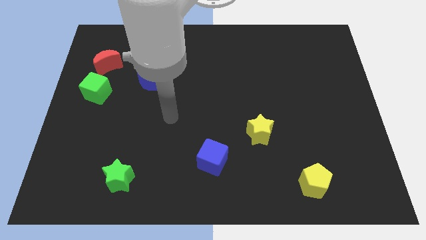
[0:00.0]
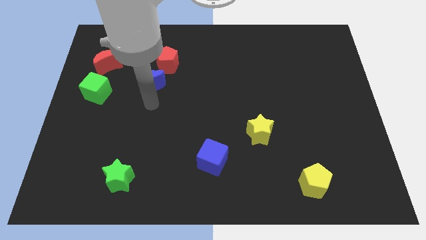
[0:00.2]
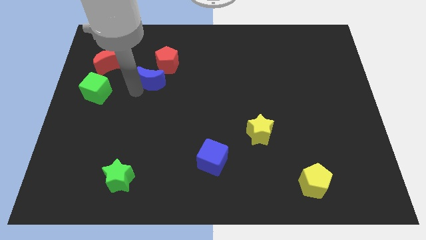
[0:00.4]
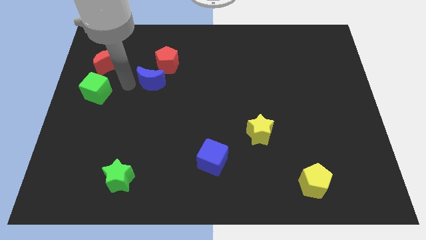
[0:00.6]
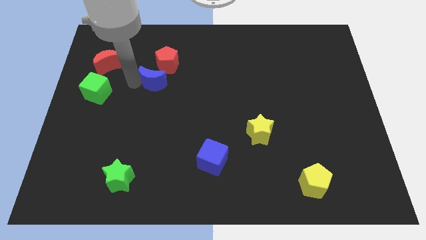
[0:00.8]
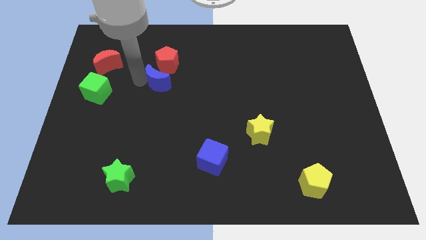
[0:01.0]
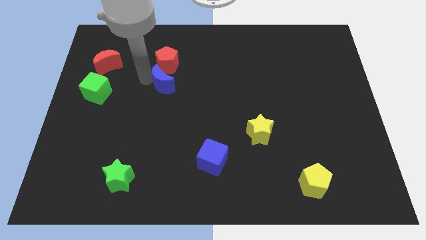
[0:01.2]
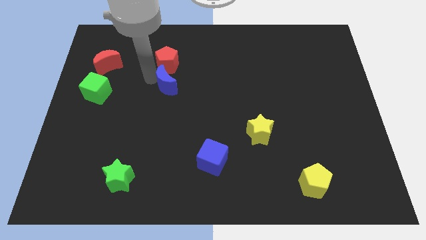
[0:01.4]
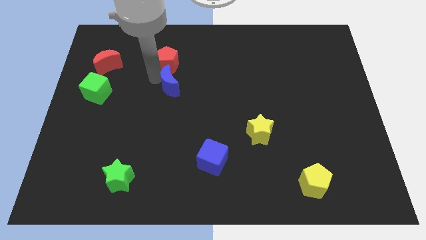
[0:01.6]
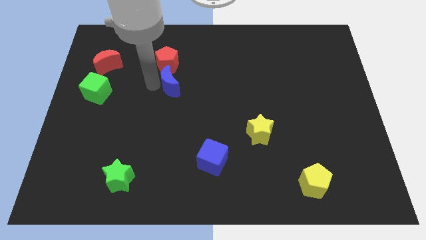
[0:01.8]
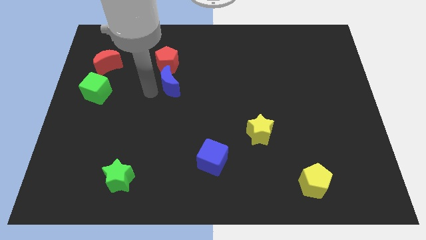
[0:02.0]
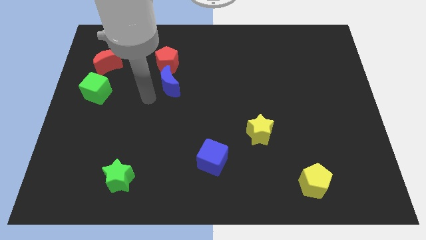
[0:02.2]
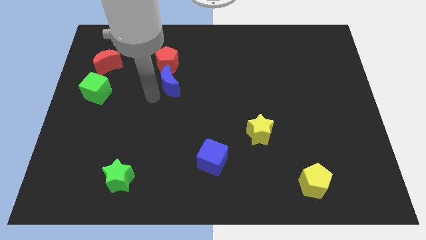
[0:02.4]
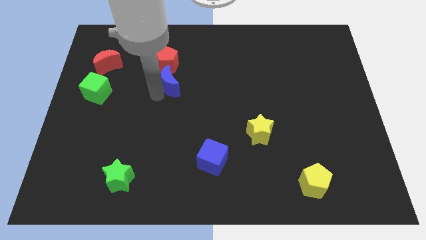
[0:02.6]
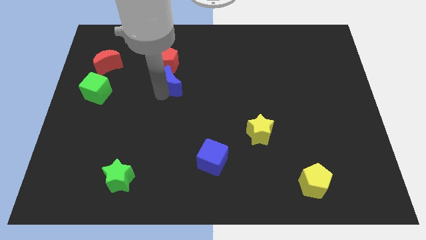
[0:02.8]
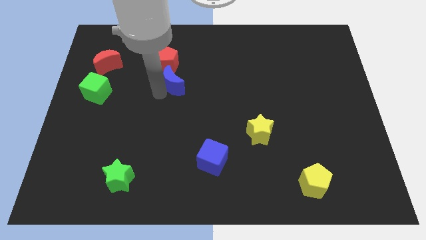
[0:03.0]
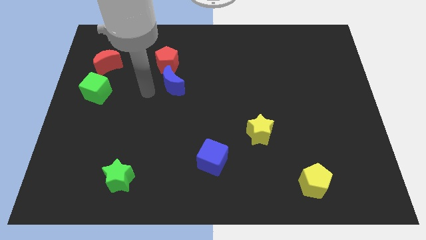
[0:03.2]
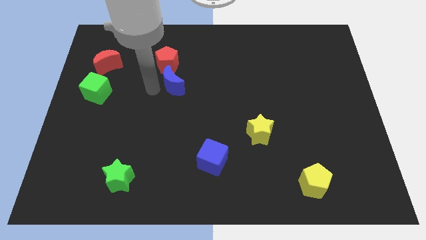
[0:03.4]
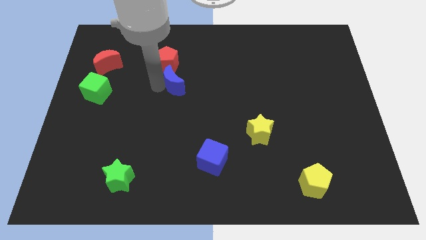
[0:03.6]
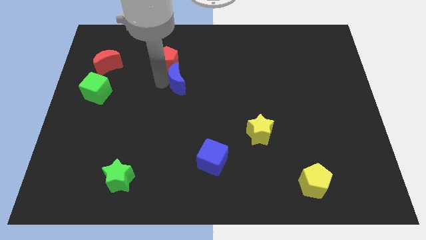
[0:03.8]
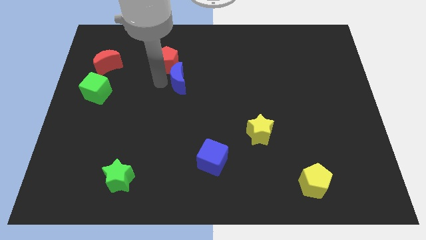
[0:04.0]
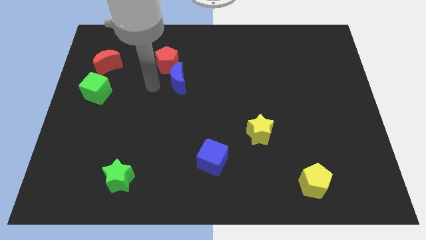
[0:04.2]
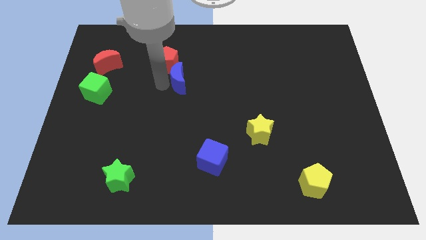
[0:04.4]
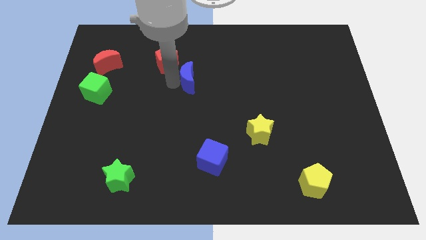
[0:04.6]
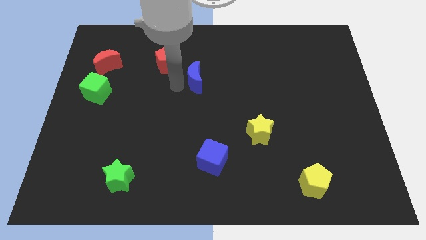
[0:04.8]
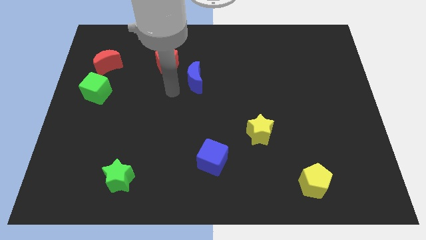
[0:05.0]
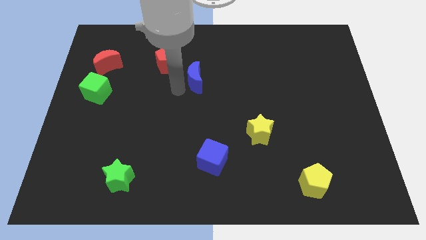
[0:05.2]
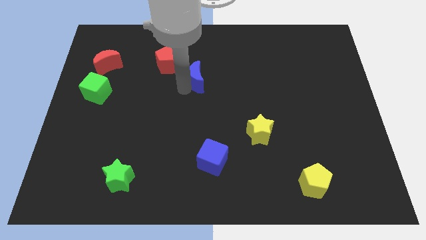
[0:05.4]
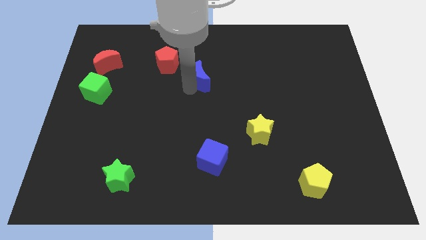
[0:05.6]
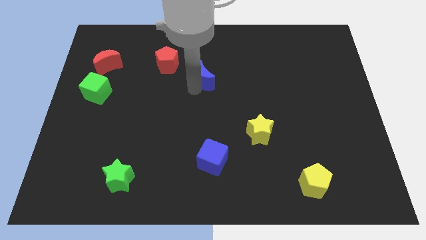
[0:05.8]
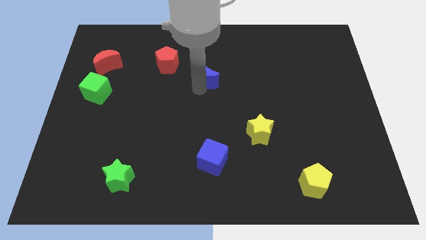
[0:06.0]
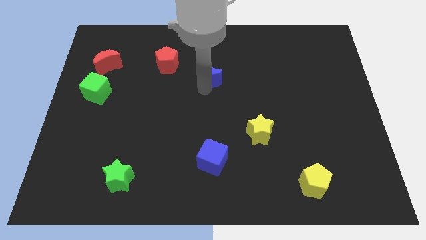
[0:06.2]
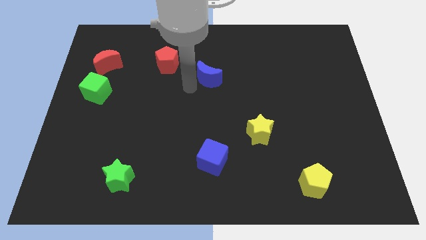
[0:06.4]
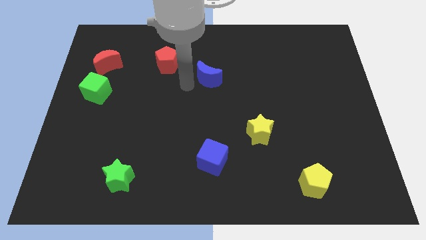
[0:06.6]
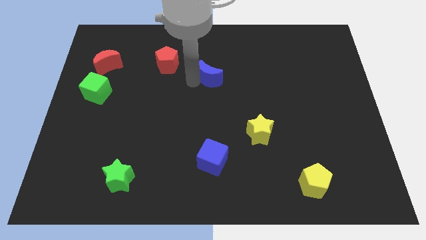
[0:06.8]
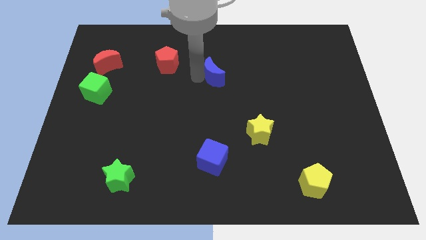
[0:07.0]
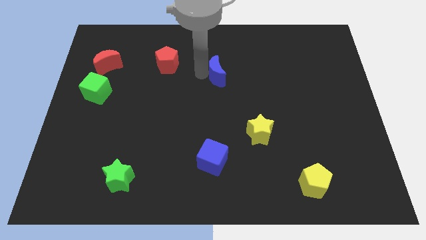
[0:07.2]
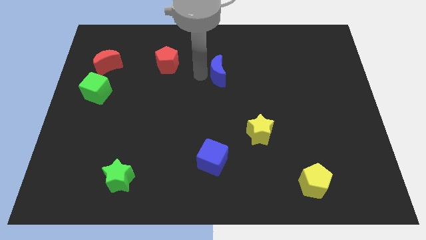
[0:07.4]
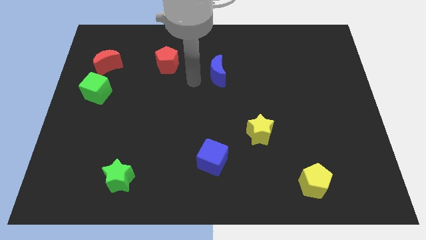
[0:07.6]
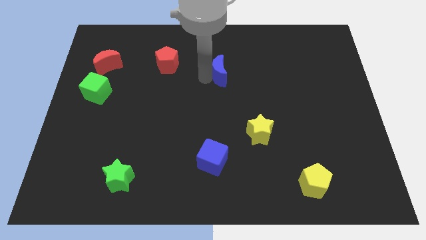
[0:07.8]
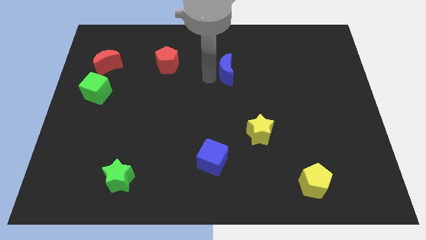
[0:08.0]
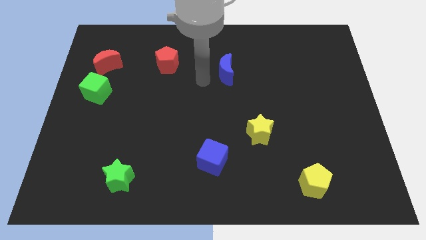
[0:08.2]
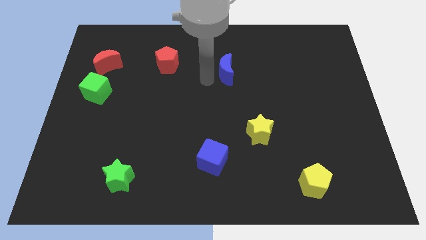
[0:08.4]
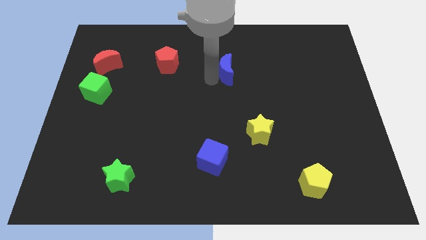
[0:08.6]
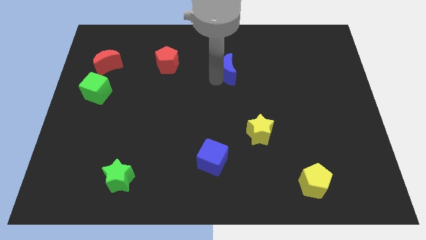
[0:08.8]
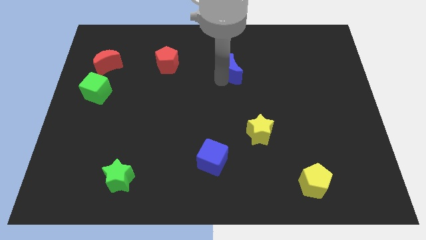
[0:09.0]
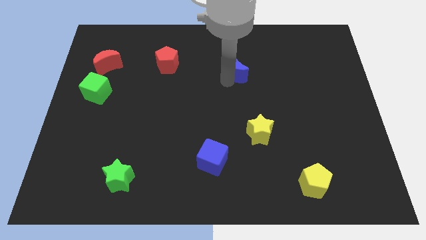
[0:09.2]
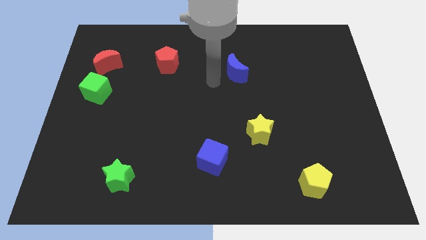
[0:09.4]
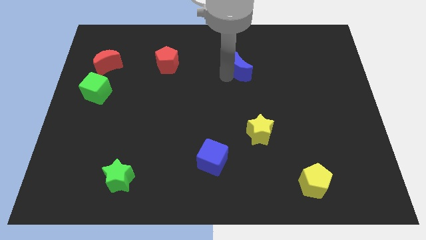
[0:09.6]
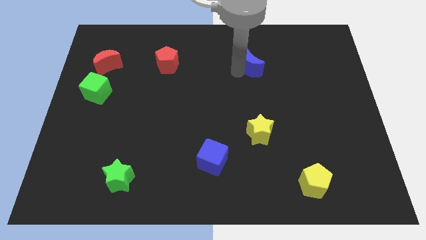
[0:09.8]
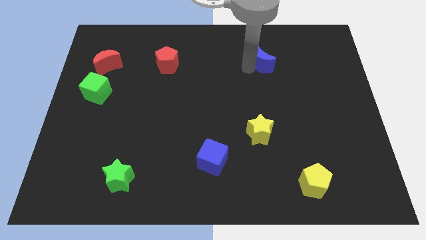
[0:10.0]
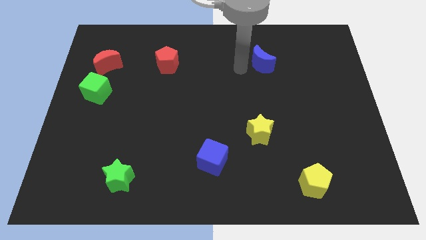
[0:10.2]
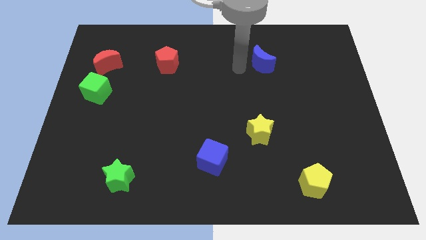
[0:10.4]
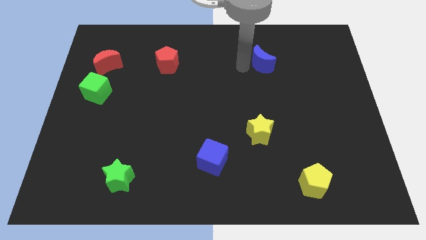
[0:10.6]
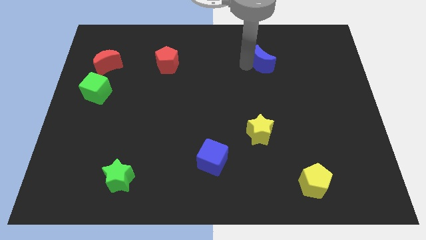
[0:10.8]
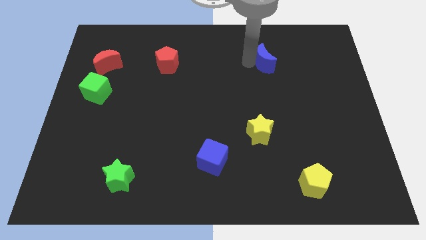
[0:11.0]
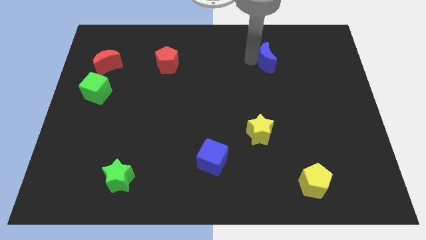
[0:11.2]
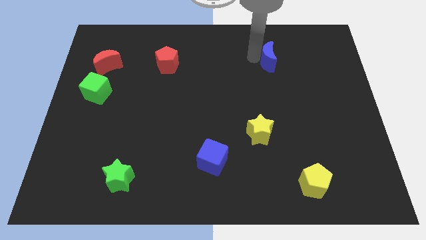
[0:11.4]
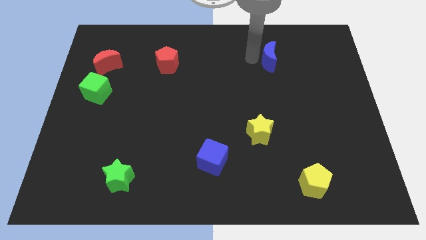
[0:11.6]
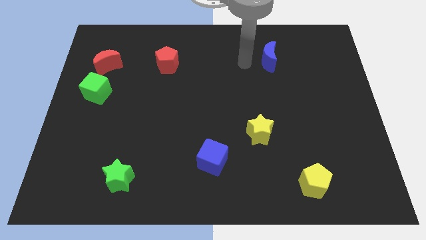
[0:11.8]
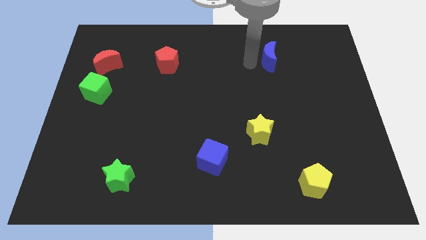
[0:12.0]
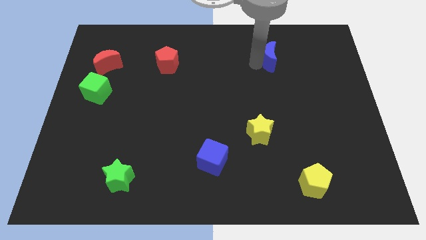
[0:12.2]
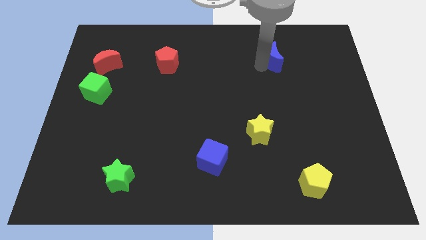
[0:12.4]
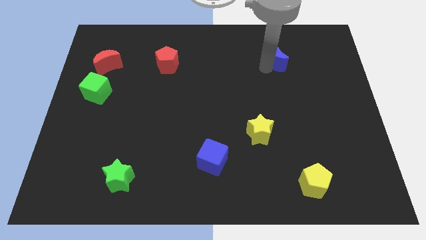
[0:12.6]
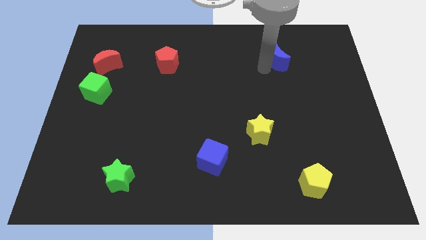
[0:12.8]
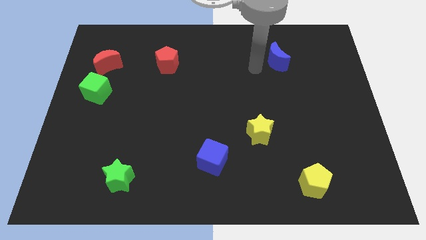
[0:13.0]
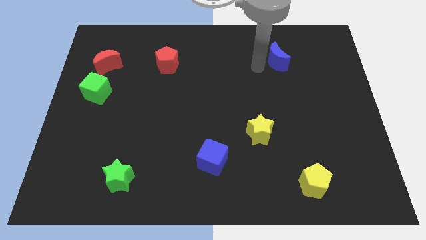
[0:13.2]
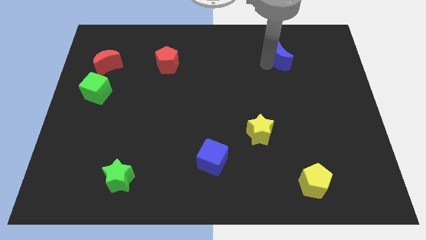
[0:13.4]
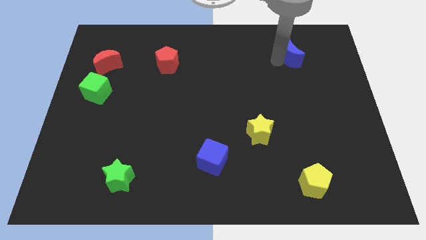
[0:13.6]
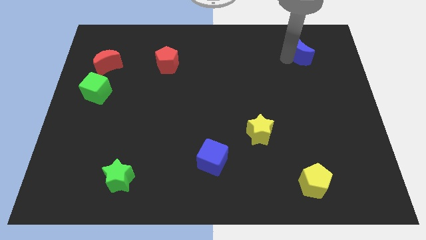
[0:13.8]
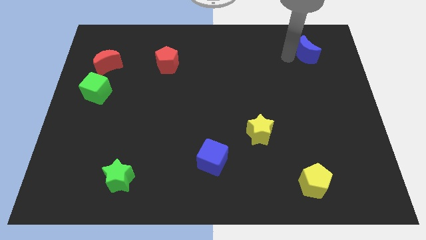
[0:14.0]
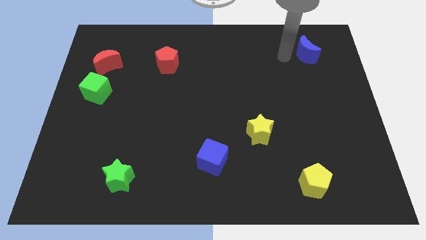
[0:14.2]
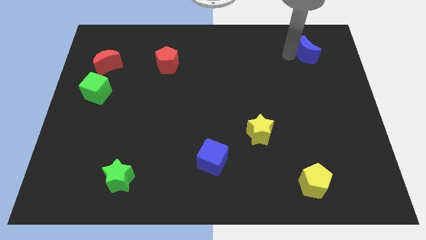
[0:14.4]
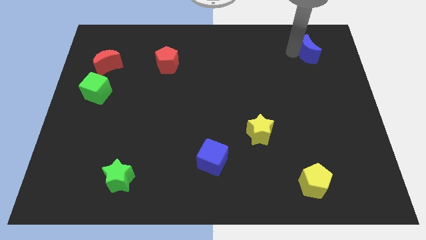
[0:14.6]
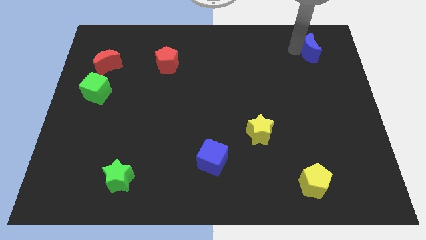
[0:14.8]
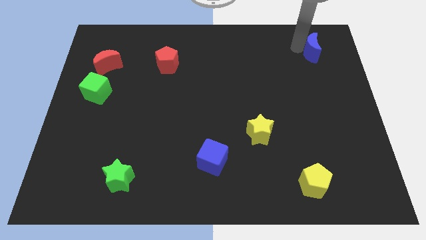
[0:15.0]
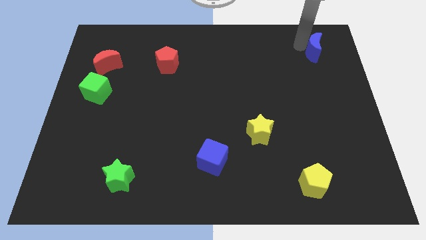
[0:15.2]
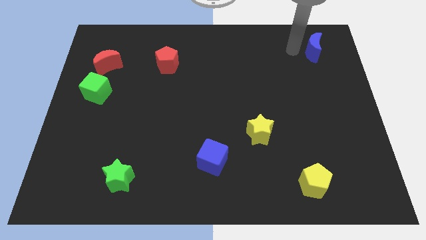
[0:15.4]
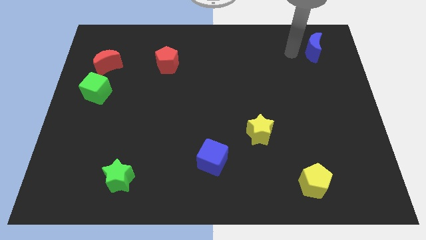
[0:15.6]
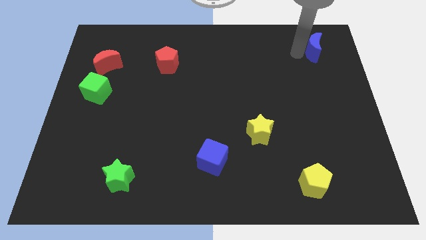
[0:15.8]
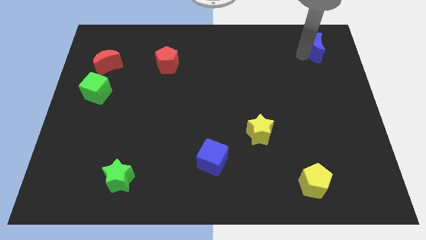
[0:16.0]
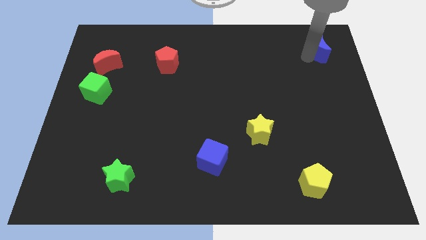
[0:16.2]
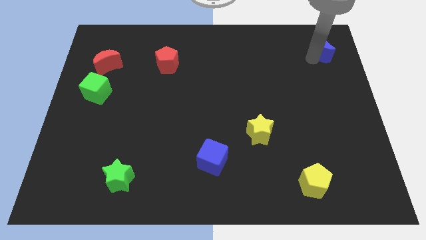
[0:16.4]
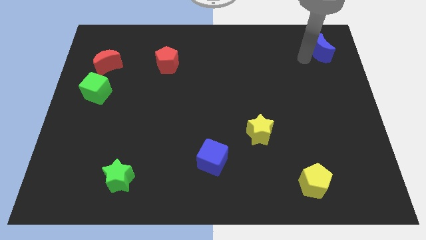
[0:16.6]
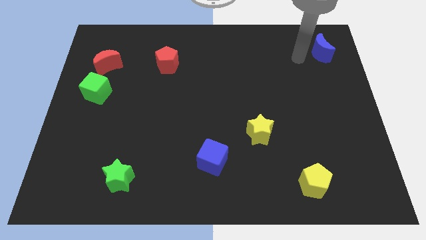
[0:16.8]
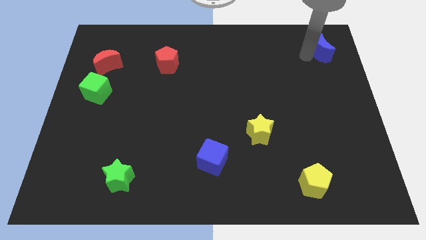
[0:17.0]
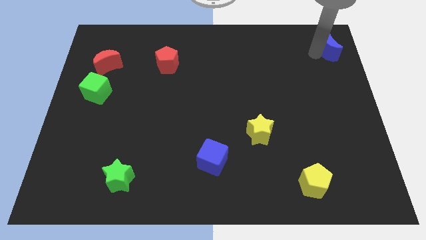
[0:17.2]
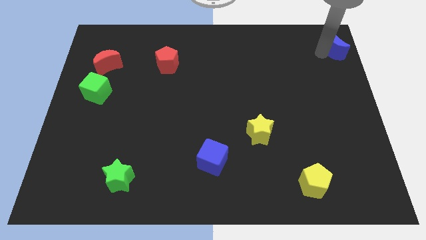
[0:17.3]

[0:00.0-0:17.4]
push the blue moon to the upper right corner
